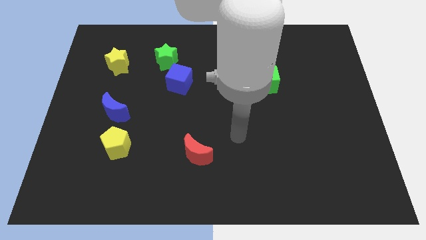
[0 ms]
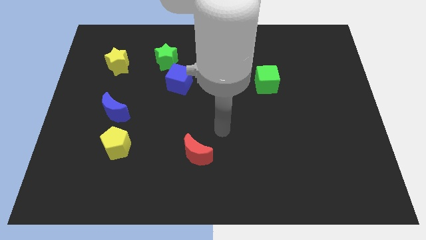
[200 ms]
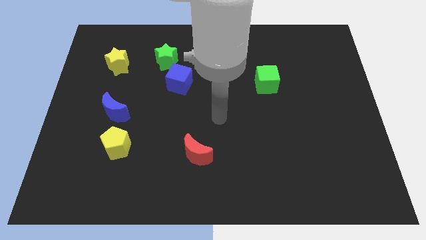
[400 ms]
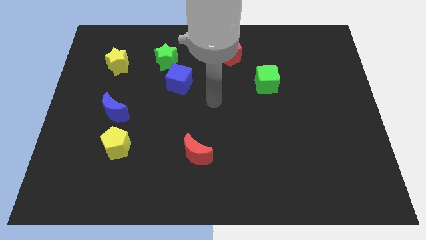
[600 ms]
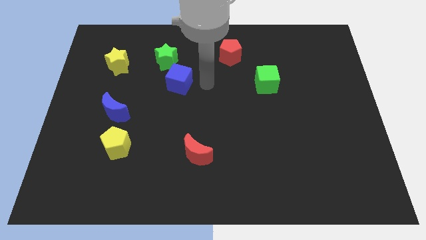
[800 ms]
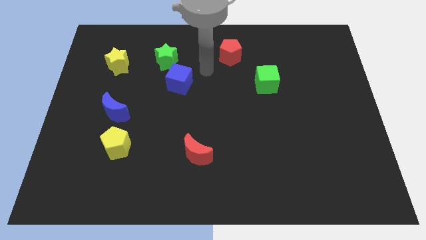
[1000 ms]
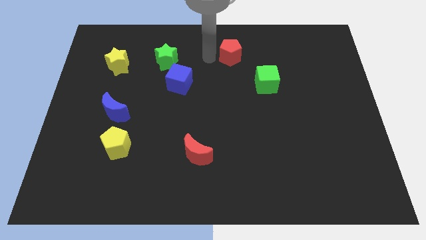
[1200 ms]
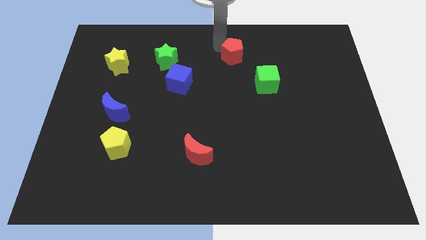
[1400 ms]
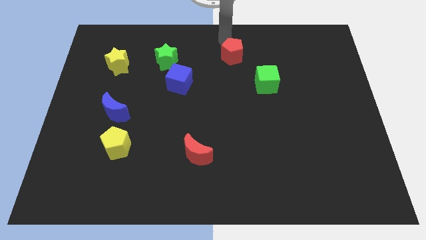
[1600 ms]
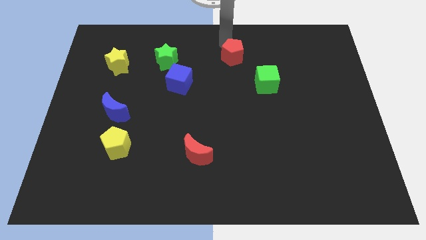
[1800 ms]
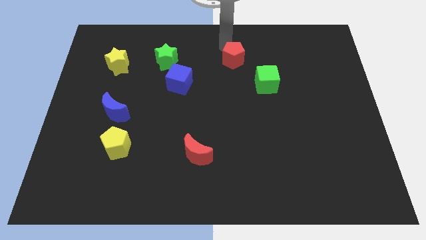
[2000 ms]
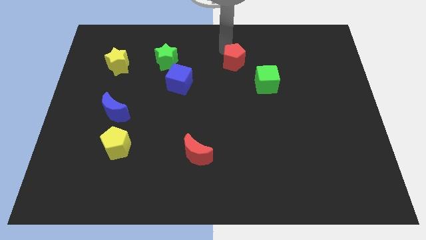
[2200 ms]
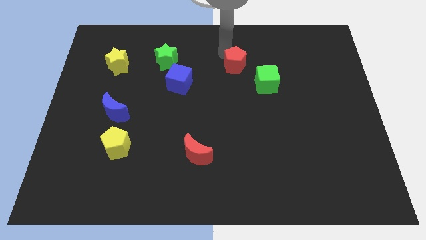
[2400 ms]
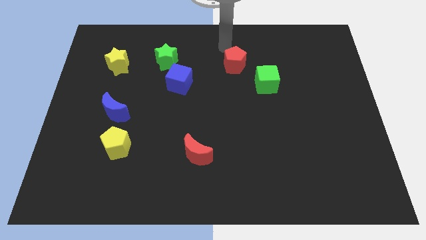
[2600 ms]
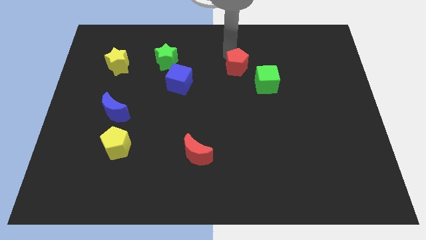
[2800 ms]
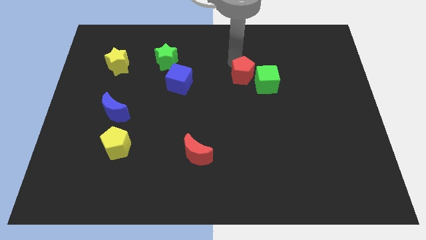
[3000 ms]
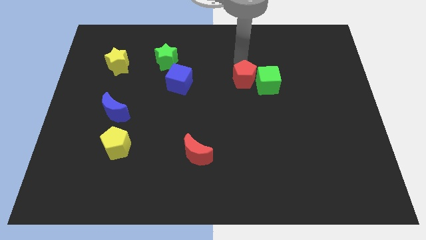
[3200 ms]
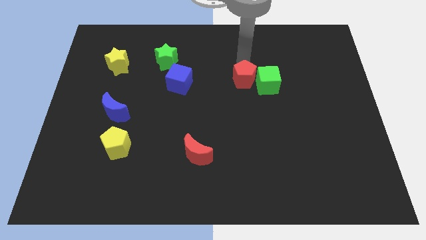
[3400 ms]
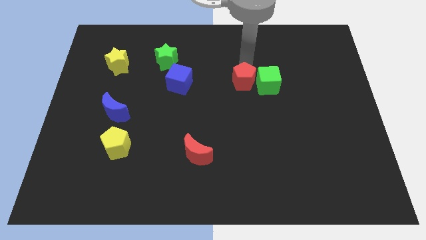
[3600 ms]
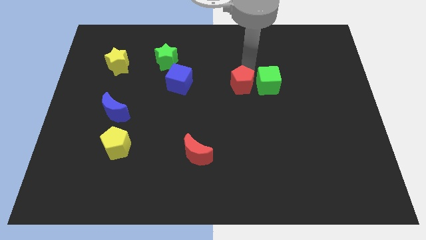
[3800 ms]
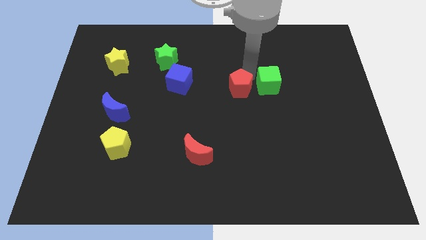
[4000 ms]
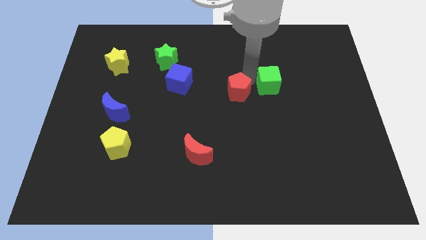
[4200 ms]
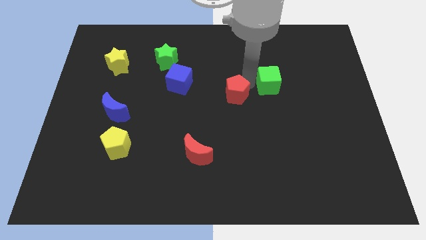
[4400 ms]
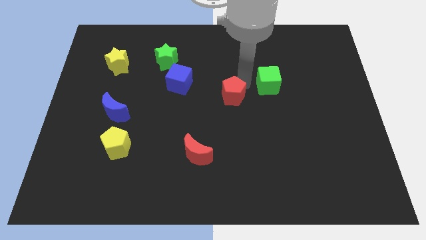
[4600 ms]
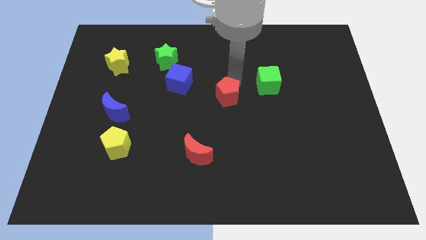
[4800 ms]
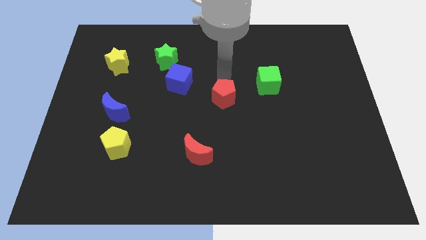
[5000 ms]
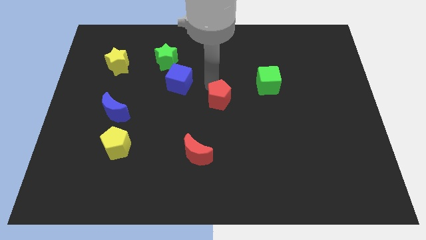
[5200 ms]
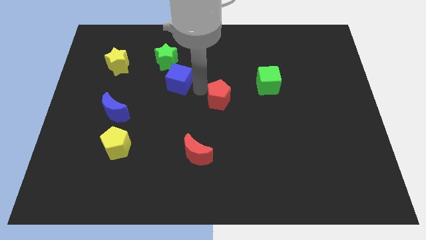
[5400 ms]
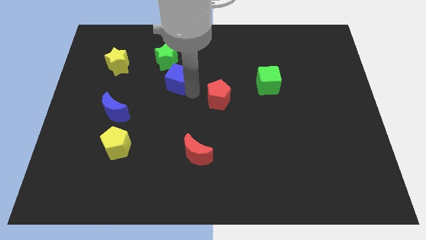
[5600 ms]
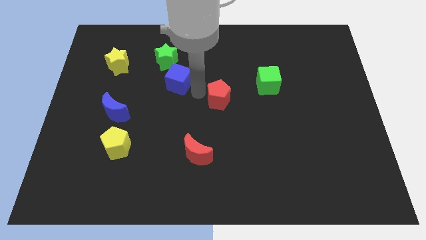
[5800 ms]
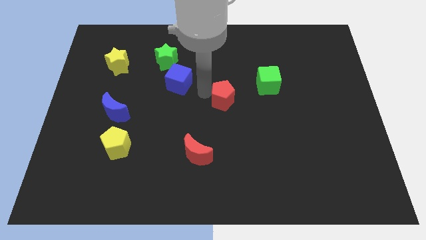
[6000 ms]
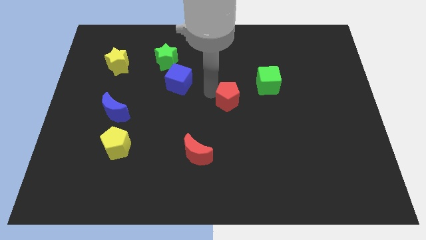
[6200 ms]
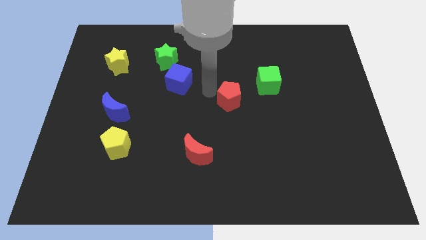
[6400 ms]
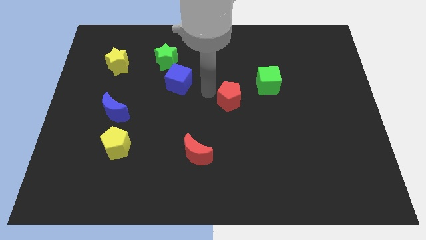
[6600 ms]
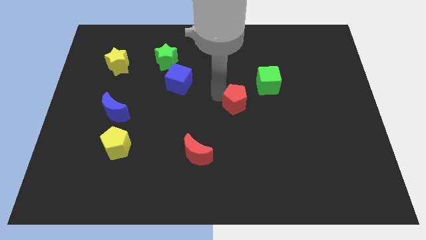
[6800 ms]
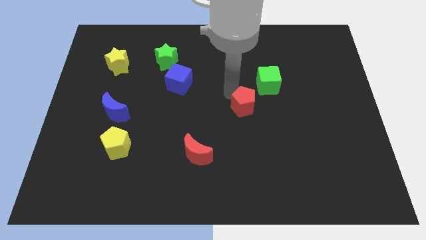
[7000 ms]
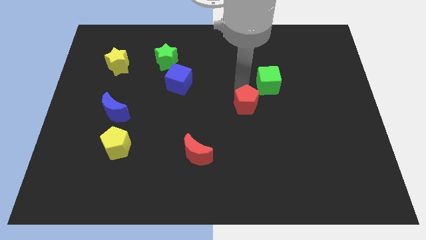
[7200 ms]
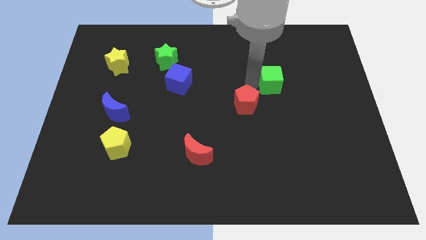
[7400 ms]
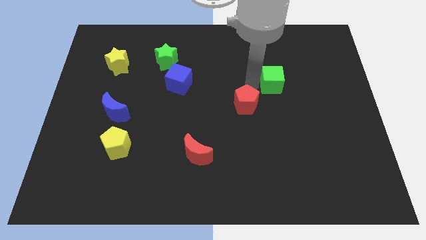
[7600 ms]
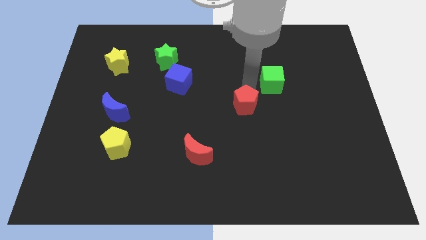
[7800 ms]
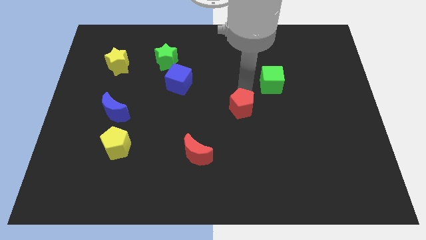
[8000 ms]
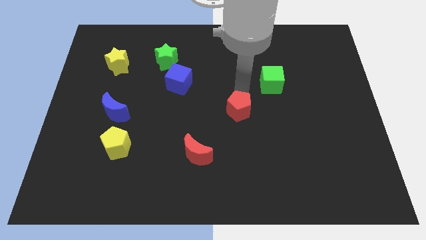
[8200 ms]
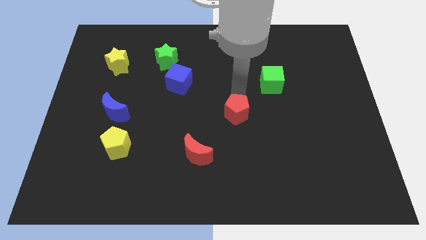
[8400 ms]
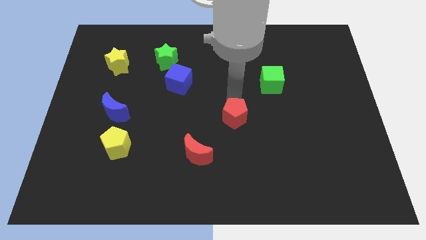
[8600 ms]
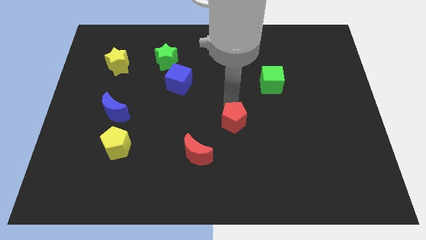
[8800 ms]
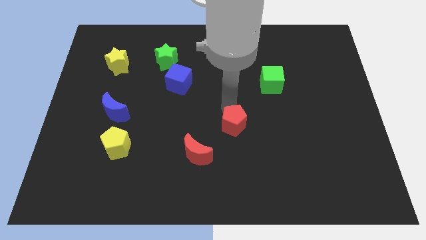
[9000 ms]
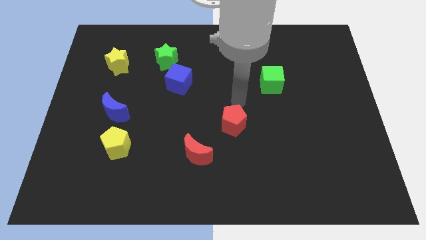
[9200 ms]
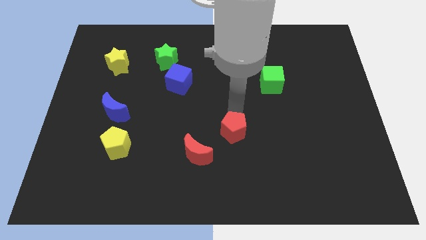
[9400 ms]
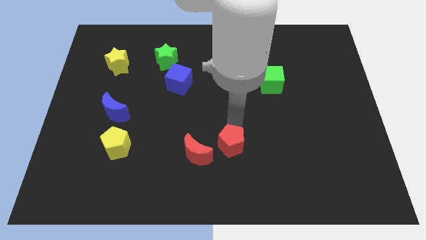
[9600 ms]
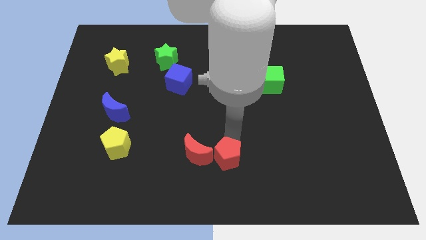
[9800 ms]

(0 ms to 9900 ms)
slide the red pentagon diagonally down and to the right of the red moon

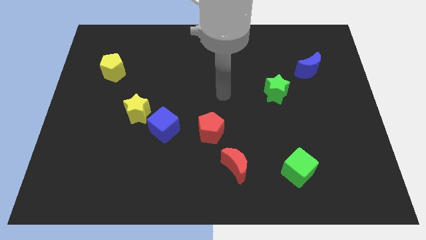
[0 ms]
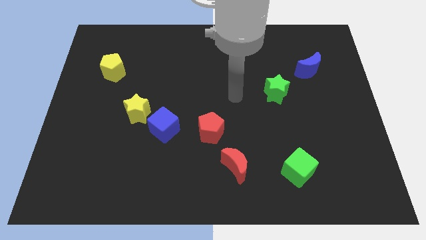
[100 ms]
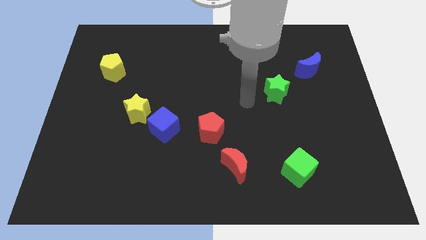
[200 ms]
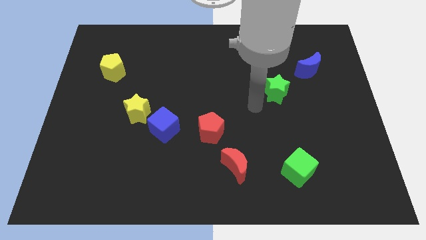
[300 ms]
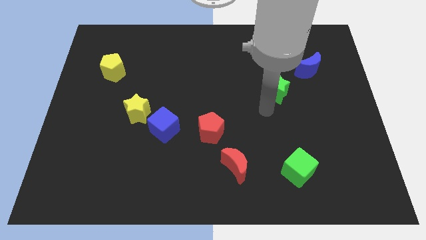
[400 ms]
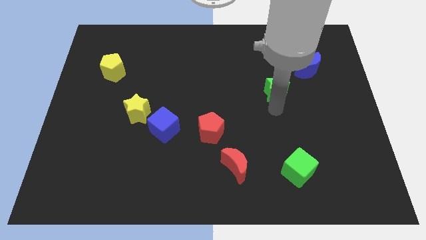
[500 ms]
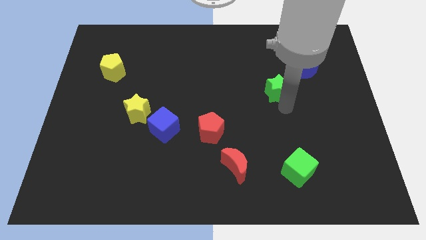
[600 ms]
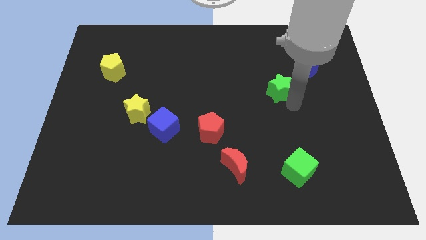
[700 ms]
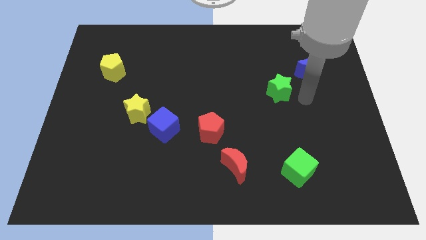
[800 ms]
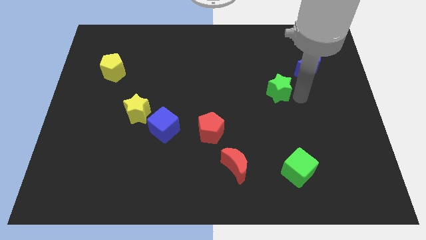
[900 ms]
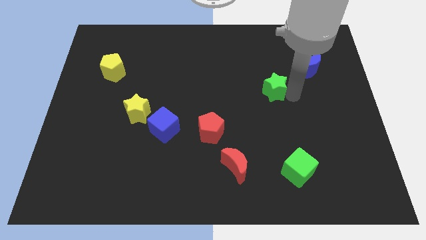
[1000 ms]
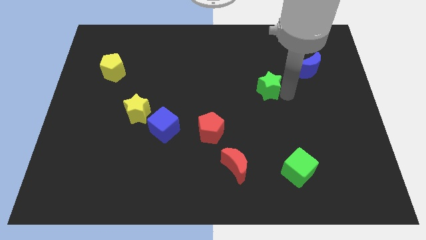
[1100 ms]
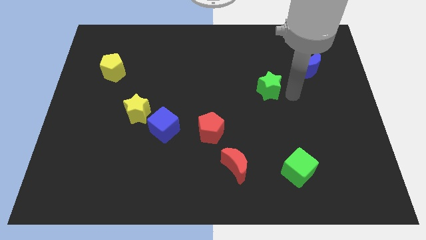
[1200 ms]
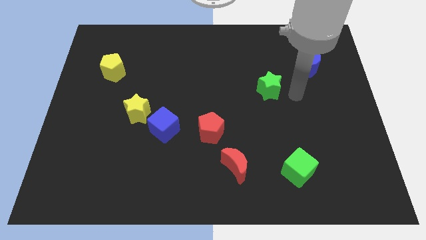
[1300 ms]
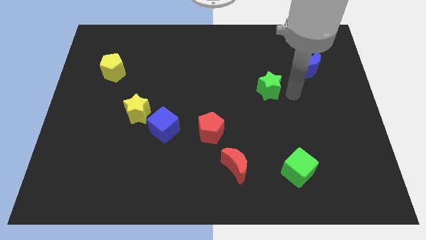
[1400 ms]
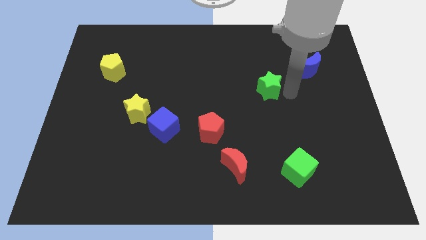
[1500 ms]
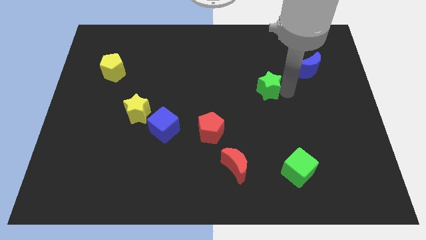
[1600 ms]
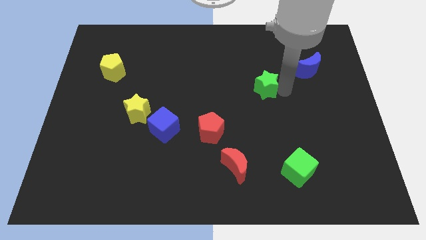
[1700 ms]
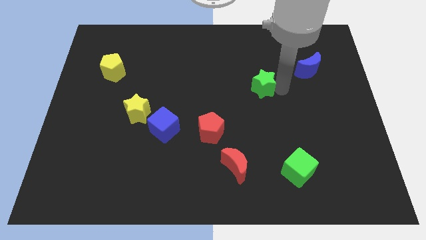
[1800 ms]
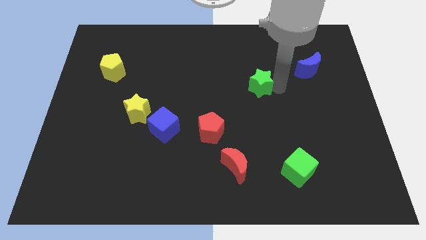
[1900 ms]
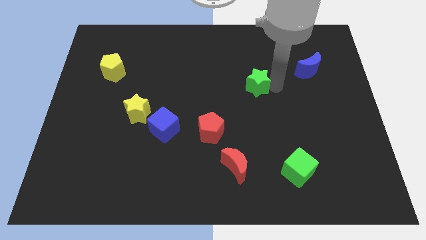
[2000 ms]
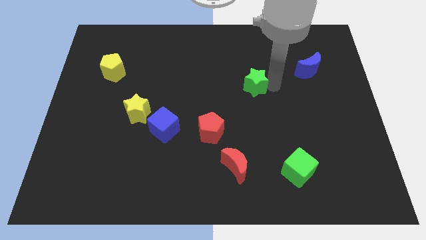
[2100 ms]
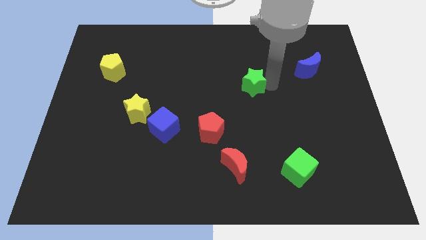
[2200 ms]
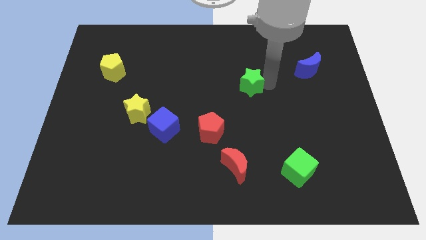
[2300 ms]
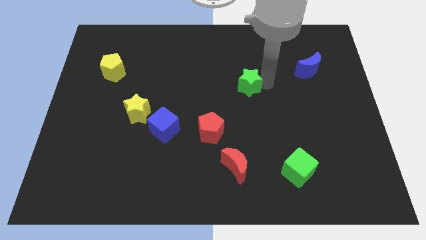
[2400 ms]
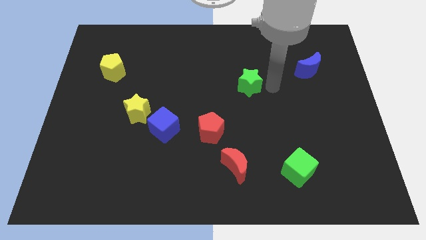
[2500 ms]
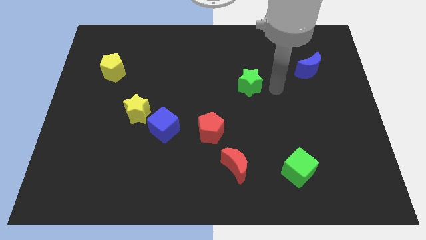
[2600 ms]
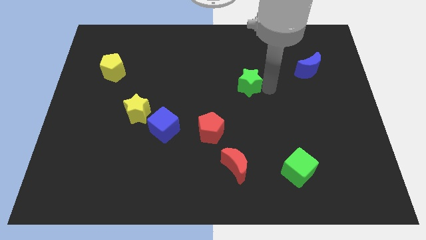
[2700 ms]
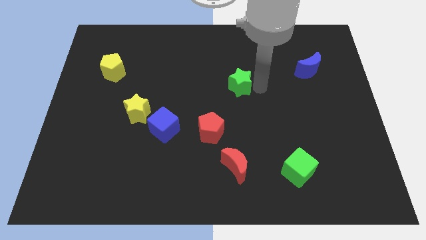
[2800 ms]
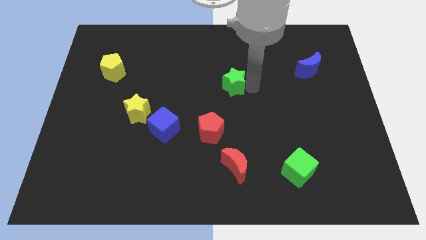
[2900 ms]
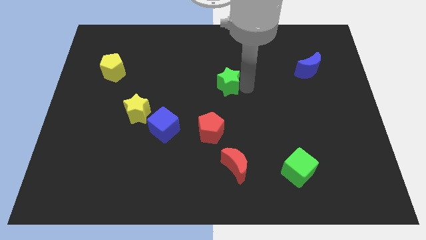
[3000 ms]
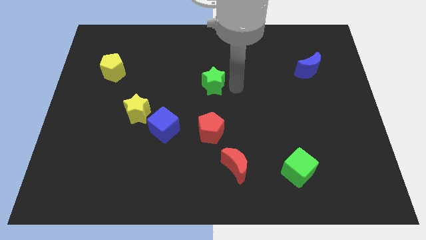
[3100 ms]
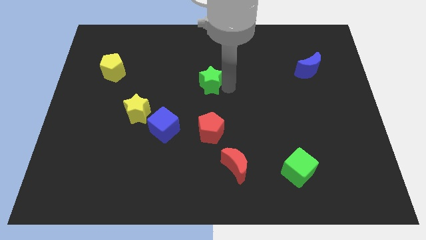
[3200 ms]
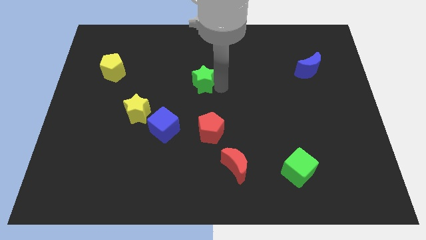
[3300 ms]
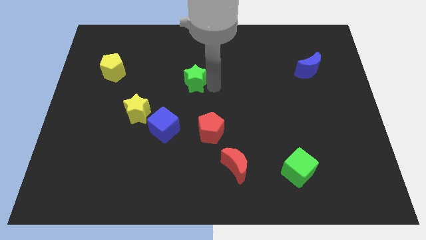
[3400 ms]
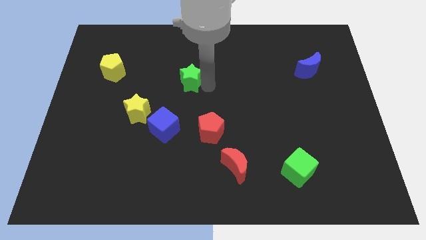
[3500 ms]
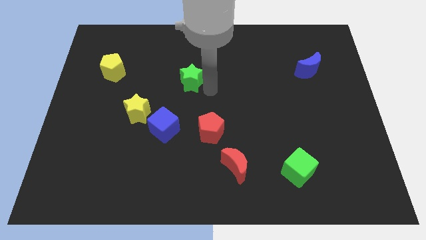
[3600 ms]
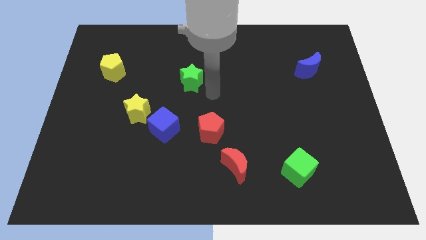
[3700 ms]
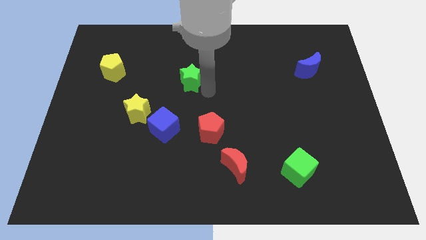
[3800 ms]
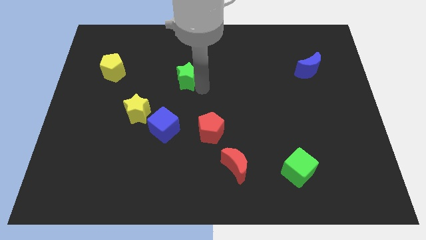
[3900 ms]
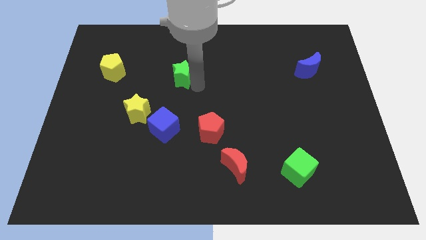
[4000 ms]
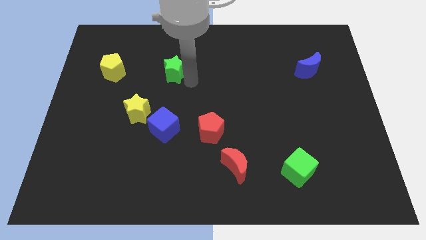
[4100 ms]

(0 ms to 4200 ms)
put the green star to the right side of the yellow pentagon
